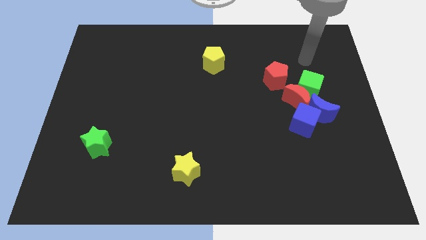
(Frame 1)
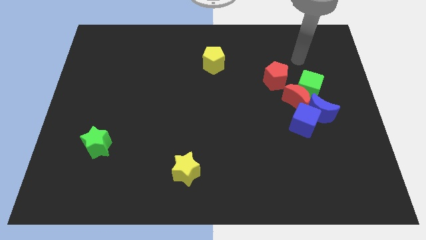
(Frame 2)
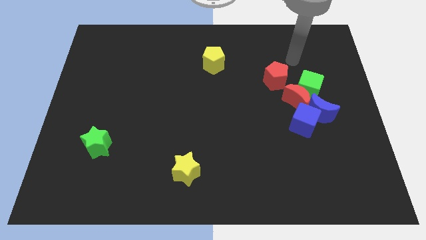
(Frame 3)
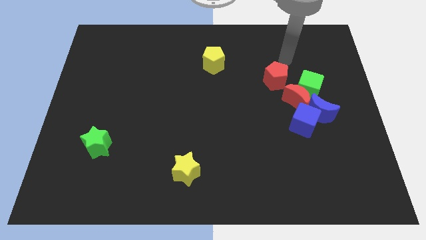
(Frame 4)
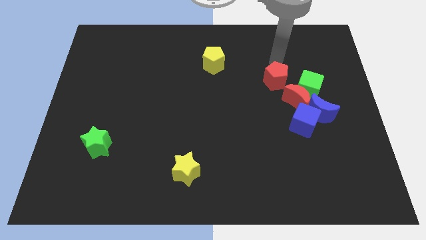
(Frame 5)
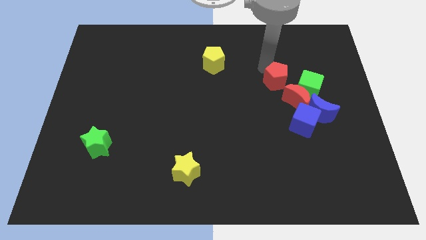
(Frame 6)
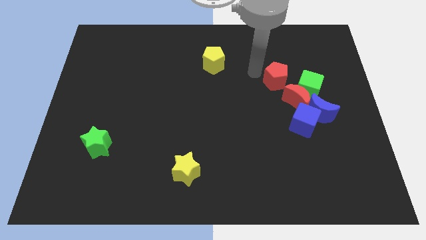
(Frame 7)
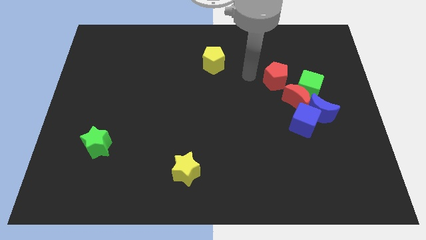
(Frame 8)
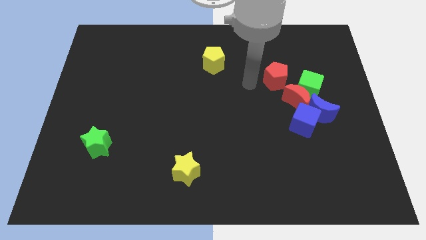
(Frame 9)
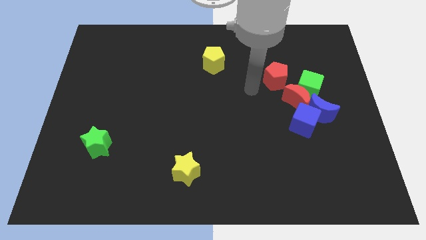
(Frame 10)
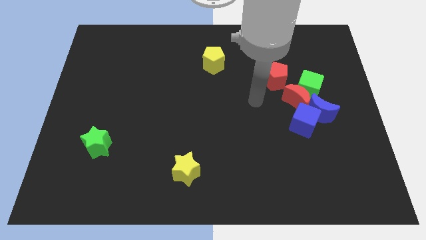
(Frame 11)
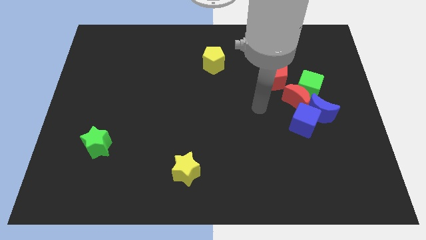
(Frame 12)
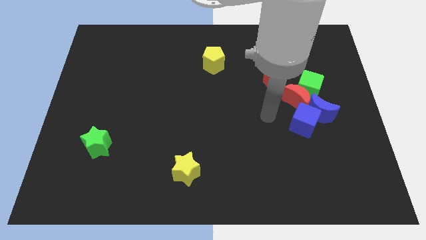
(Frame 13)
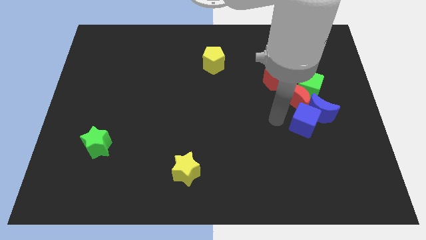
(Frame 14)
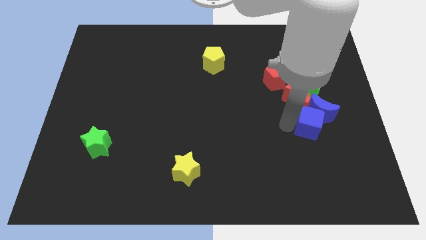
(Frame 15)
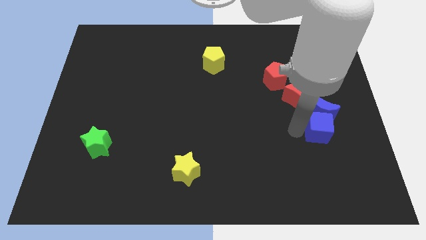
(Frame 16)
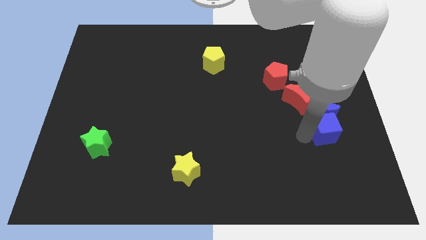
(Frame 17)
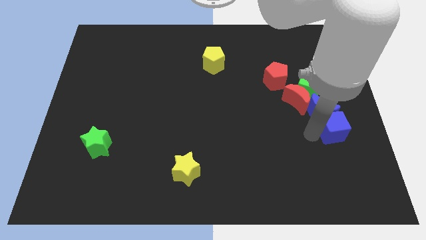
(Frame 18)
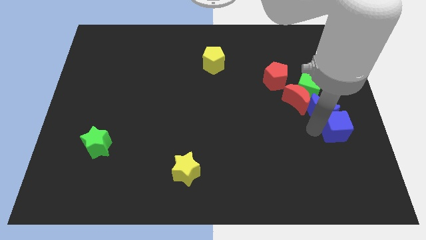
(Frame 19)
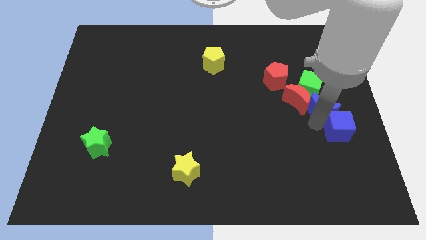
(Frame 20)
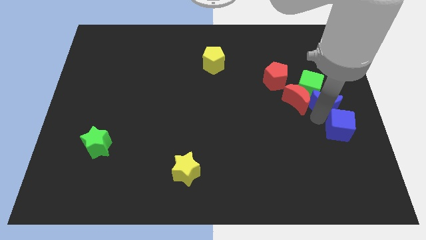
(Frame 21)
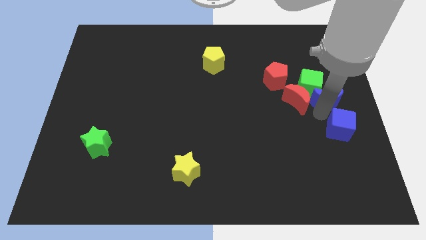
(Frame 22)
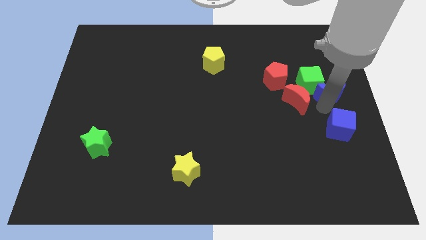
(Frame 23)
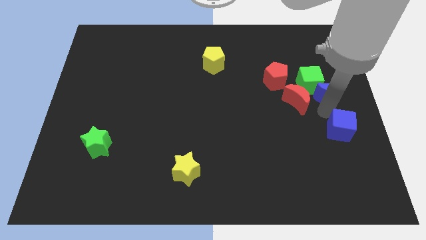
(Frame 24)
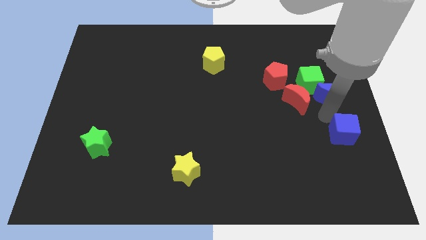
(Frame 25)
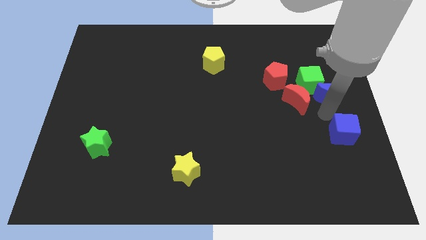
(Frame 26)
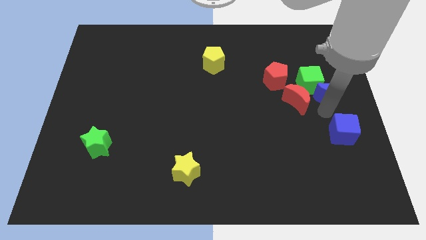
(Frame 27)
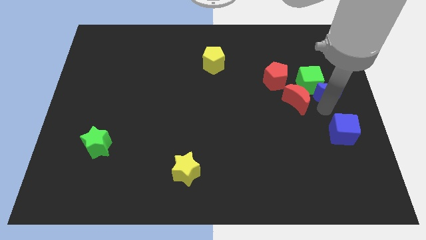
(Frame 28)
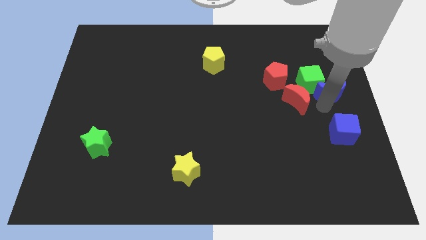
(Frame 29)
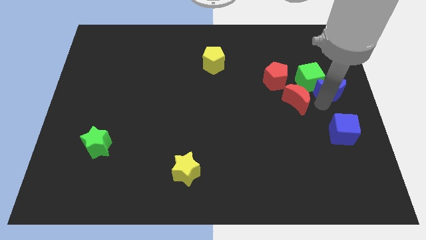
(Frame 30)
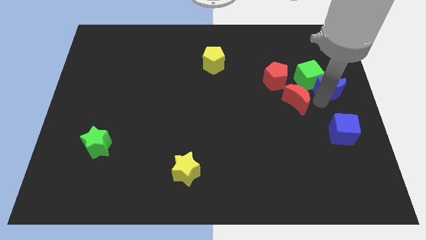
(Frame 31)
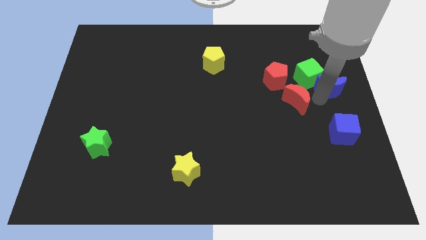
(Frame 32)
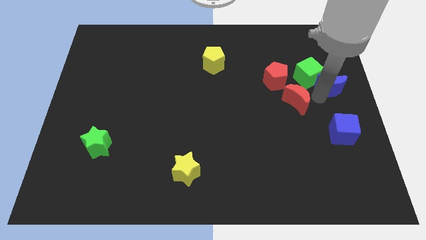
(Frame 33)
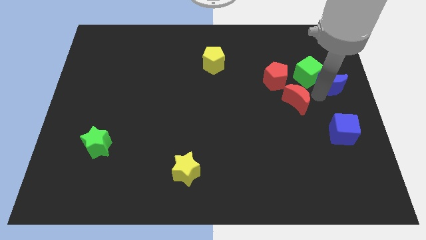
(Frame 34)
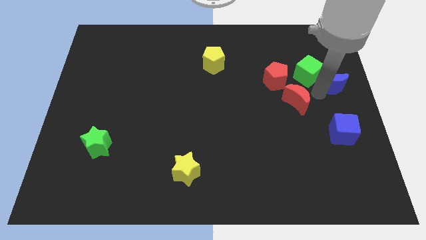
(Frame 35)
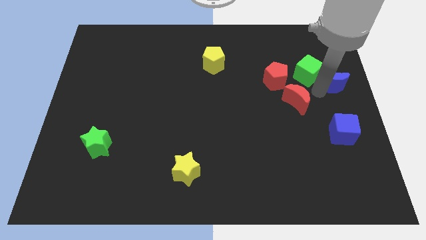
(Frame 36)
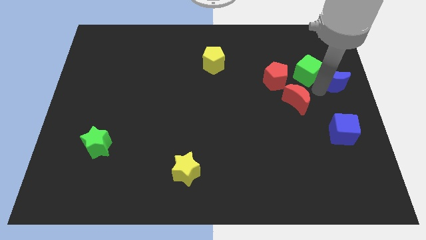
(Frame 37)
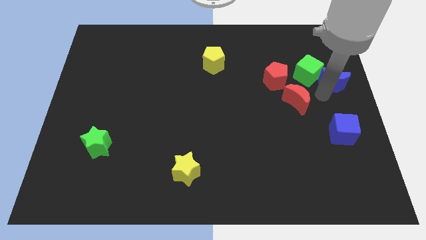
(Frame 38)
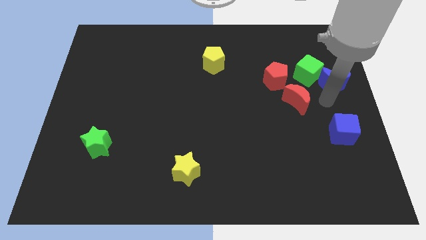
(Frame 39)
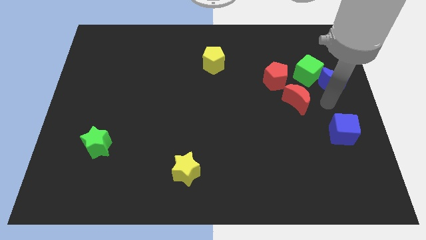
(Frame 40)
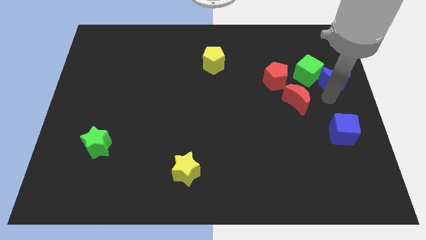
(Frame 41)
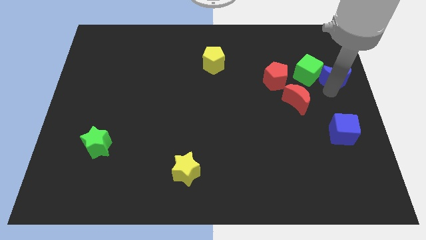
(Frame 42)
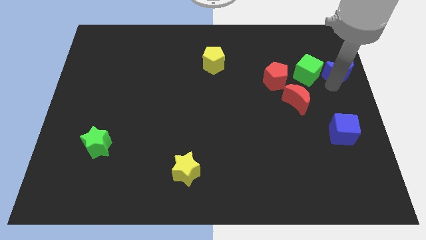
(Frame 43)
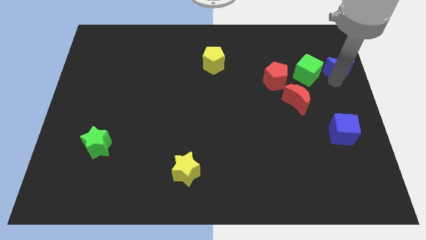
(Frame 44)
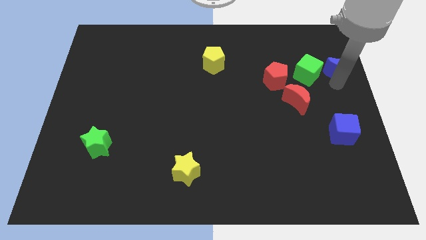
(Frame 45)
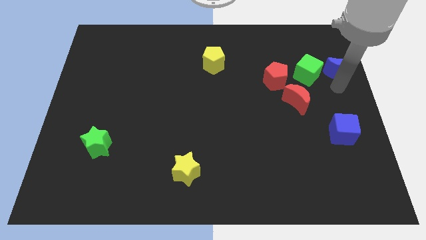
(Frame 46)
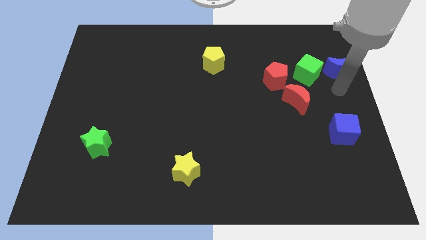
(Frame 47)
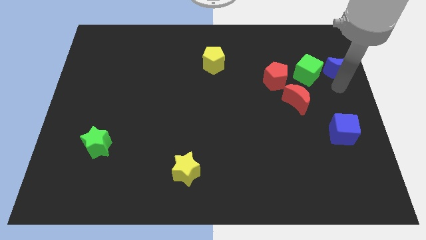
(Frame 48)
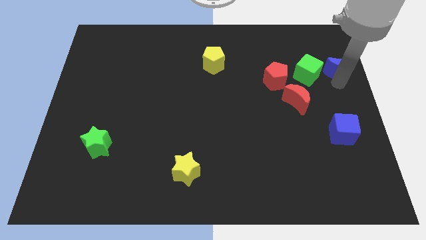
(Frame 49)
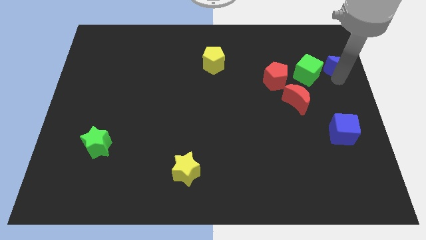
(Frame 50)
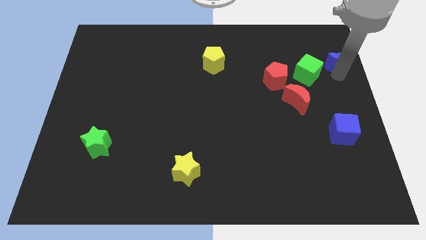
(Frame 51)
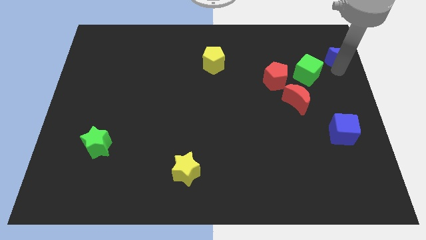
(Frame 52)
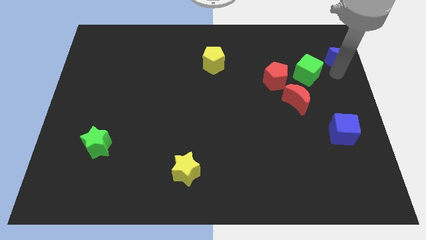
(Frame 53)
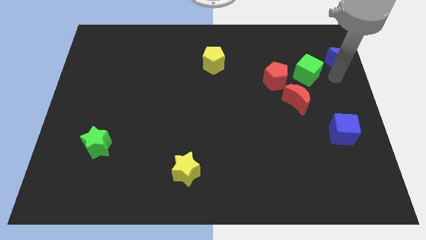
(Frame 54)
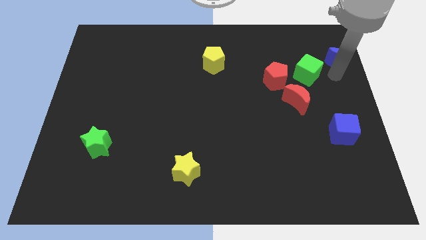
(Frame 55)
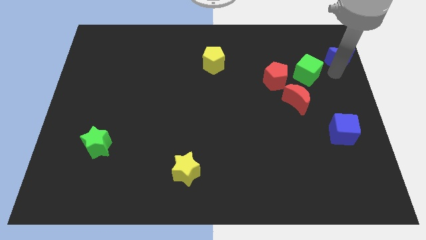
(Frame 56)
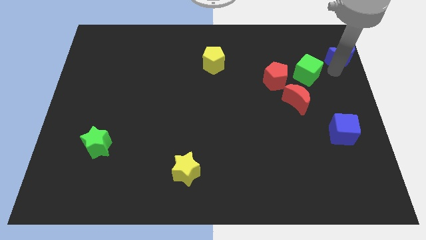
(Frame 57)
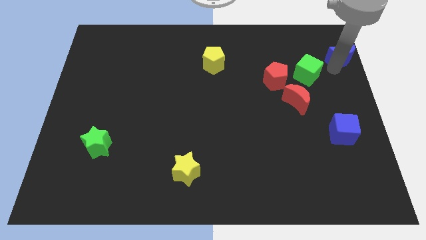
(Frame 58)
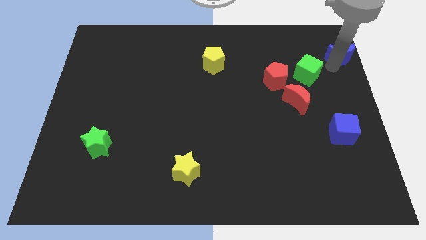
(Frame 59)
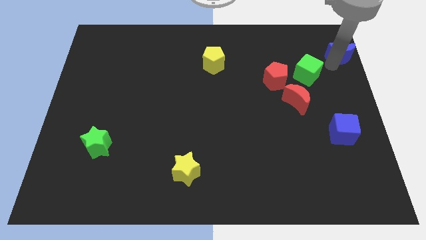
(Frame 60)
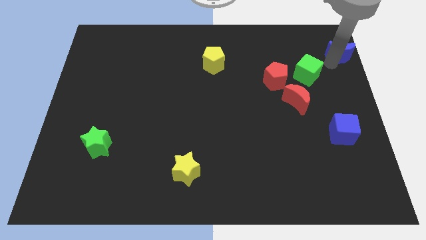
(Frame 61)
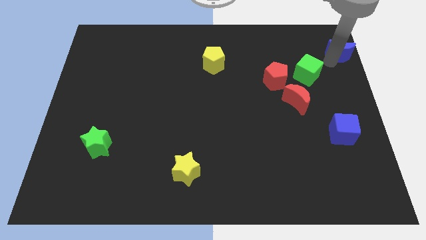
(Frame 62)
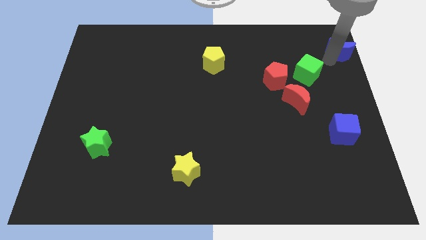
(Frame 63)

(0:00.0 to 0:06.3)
move the blue moon to the top right of the board
